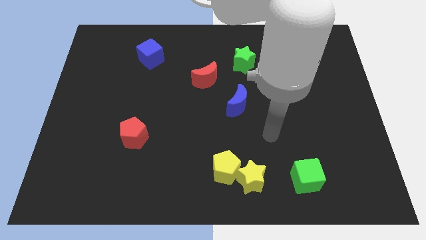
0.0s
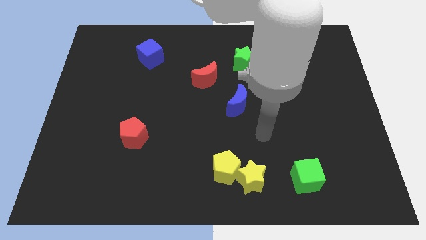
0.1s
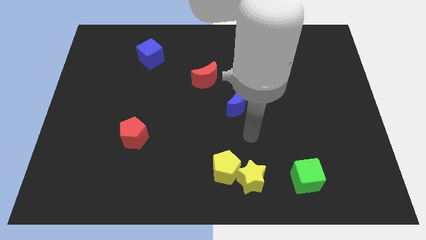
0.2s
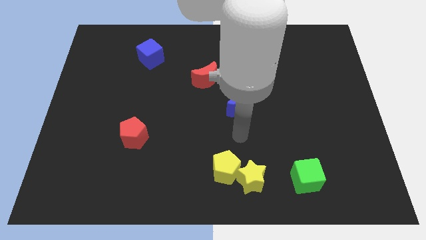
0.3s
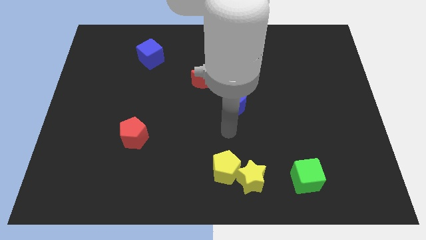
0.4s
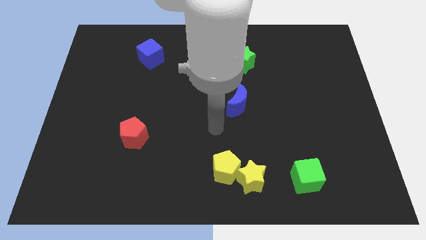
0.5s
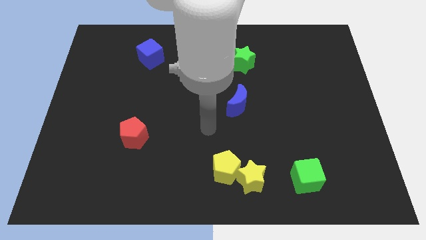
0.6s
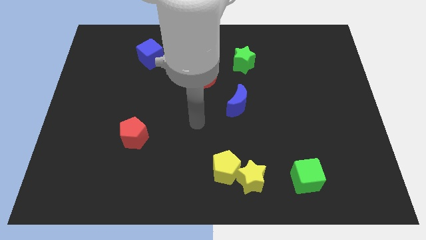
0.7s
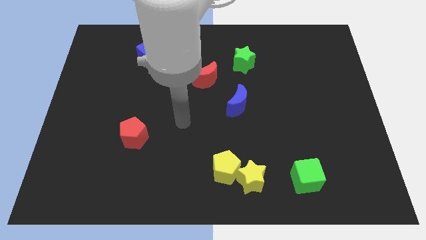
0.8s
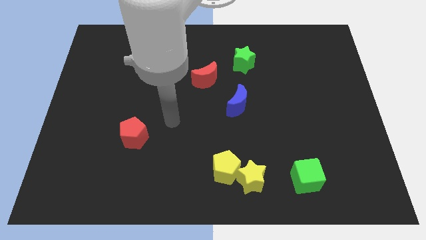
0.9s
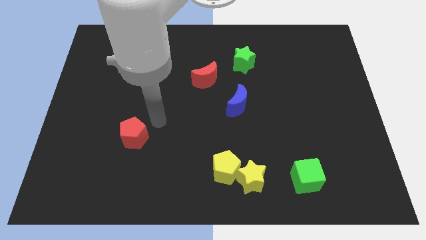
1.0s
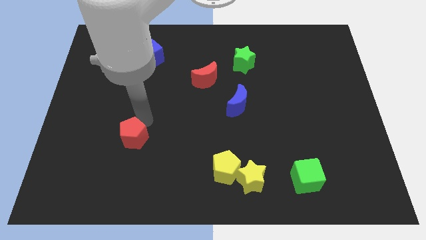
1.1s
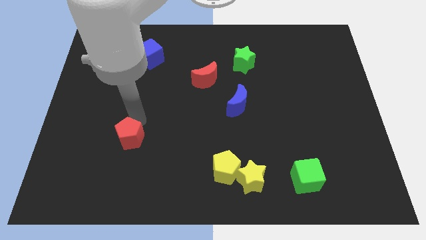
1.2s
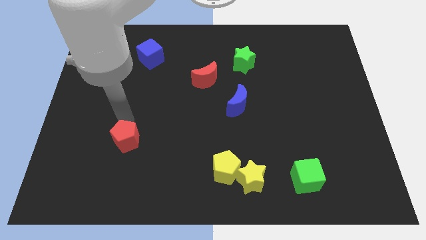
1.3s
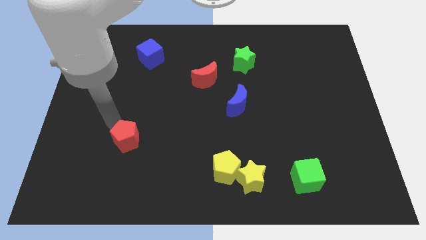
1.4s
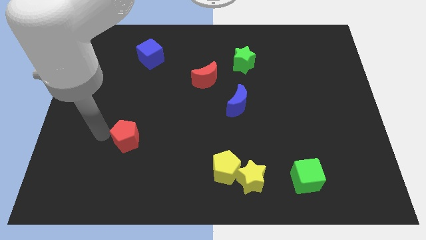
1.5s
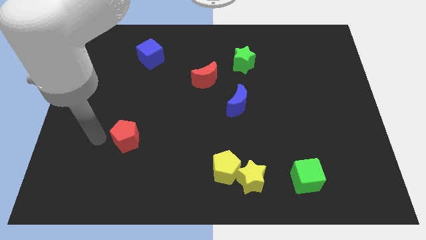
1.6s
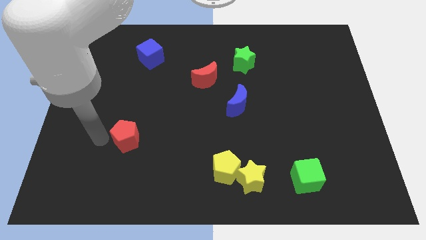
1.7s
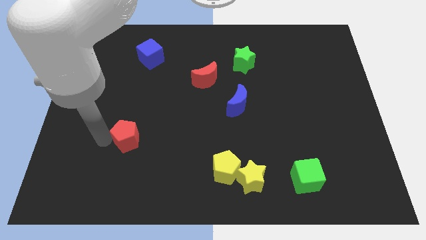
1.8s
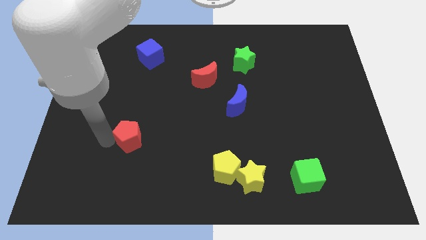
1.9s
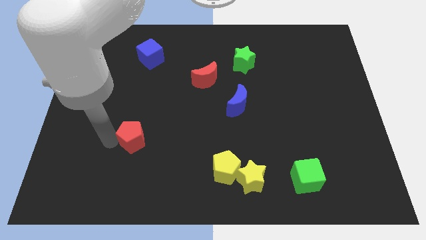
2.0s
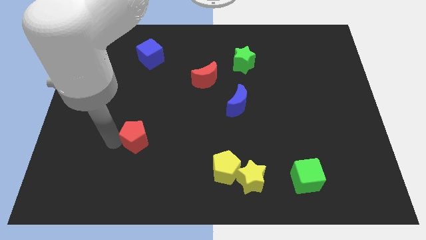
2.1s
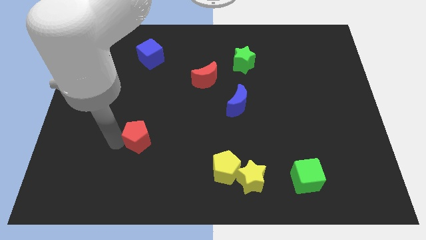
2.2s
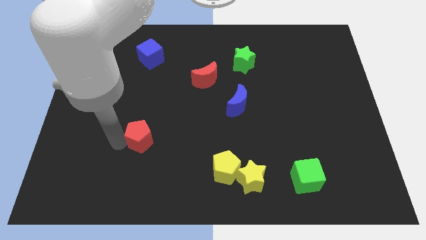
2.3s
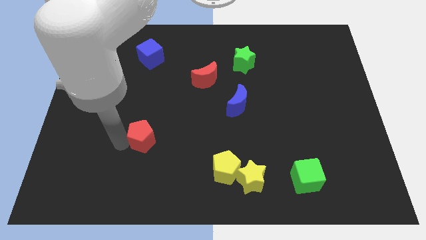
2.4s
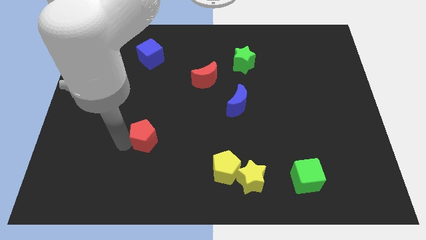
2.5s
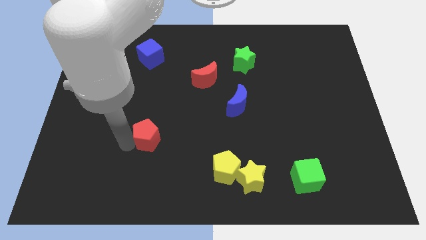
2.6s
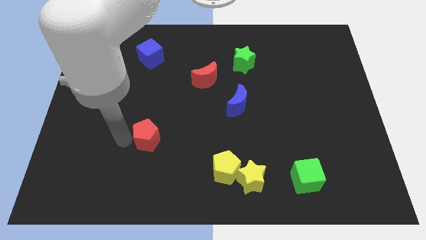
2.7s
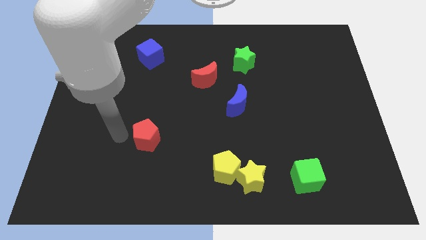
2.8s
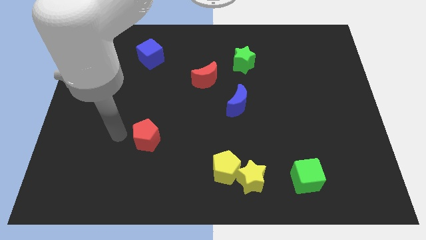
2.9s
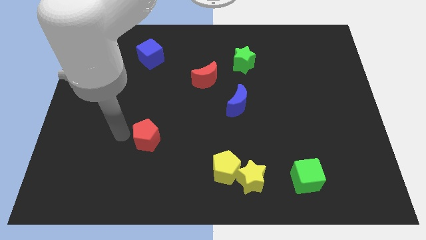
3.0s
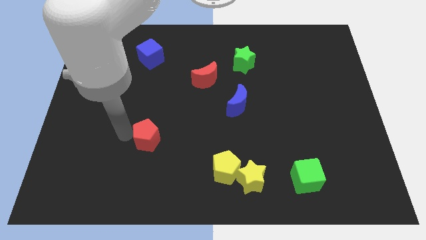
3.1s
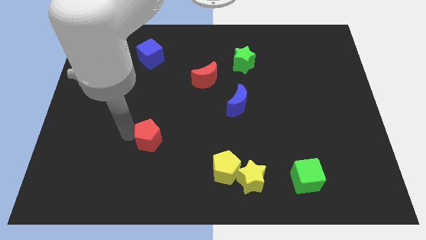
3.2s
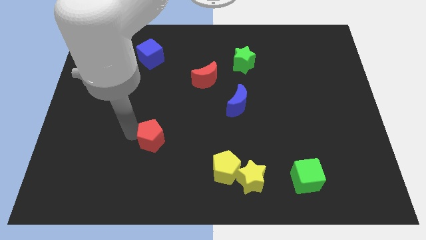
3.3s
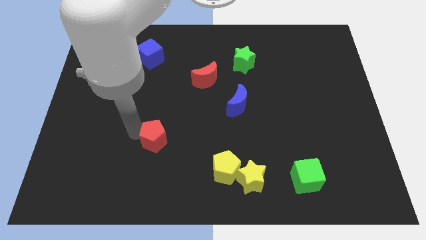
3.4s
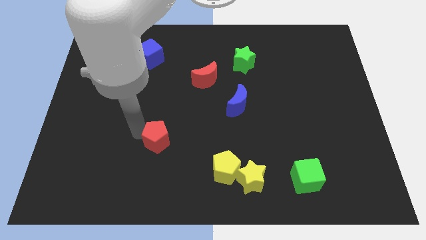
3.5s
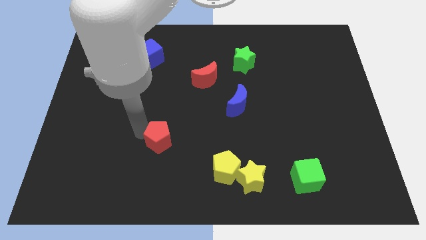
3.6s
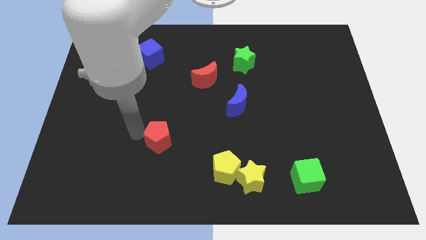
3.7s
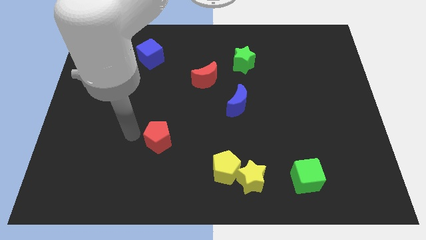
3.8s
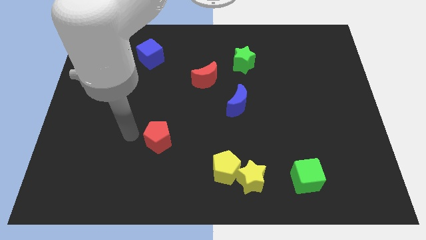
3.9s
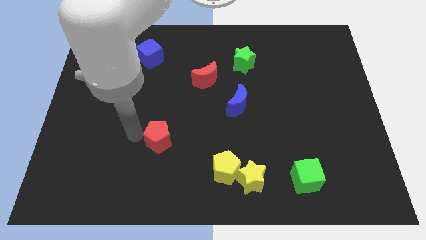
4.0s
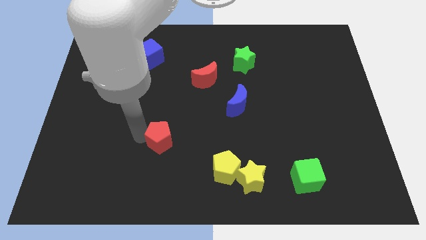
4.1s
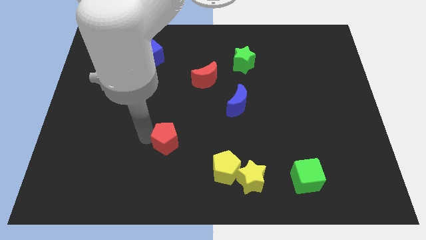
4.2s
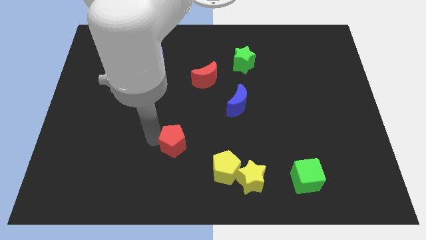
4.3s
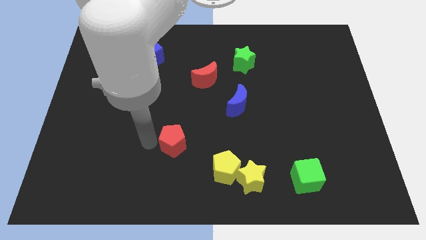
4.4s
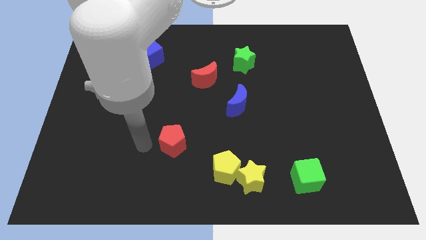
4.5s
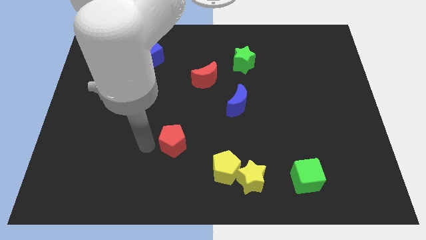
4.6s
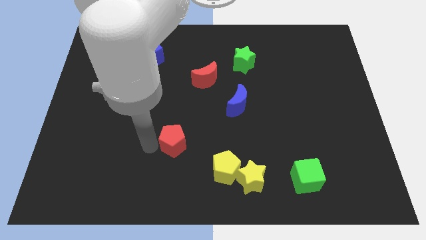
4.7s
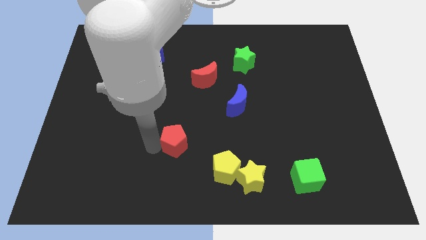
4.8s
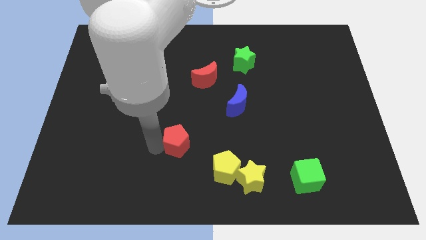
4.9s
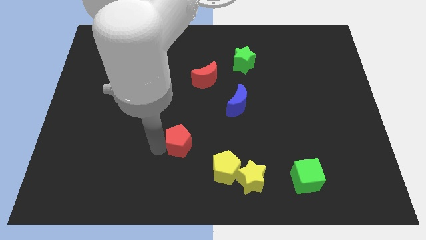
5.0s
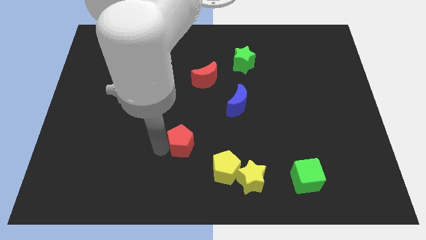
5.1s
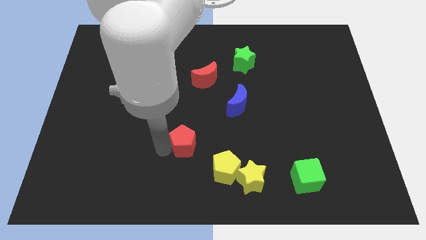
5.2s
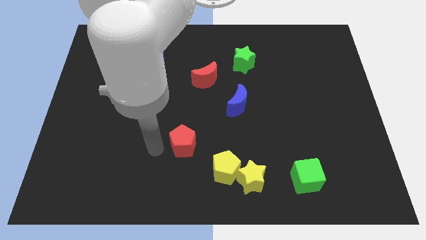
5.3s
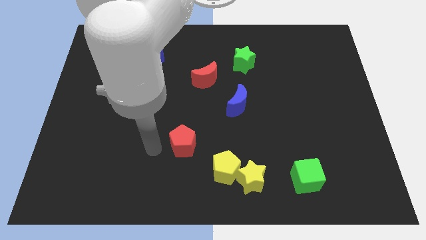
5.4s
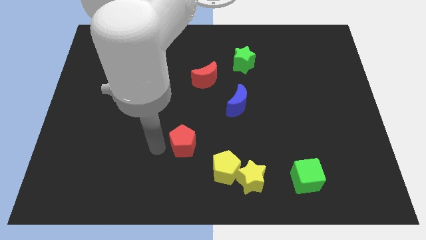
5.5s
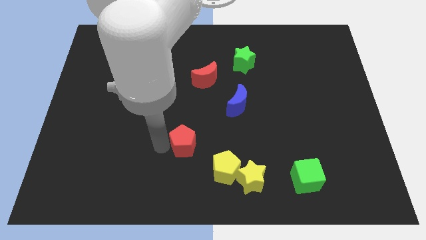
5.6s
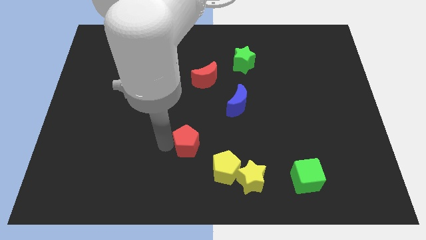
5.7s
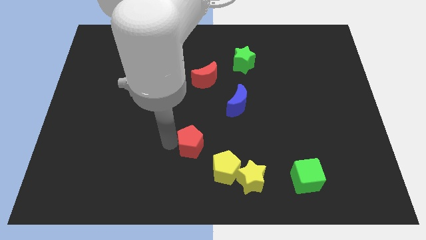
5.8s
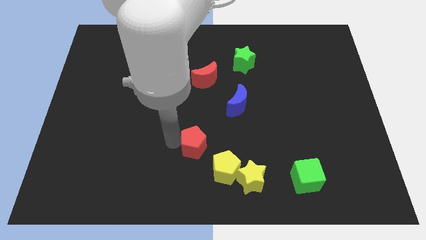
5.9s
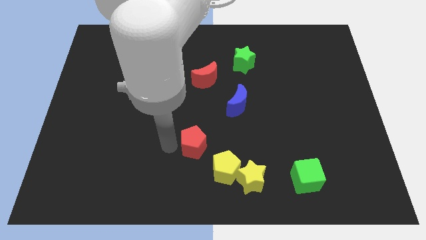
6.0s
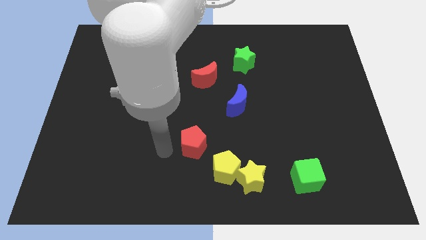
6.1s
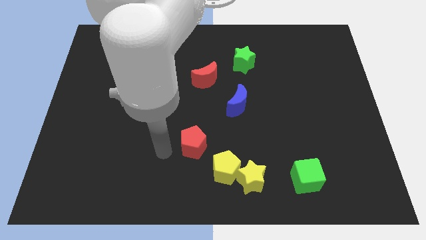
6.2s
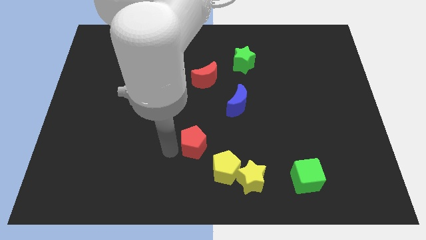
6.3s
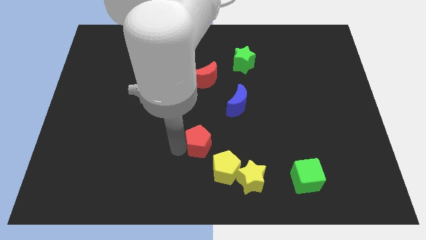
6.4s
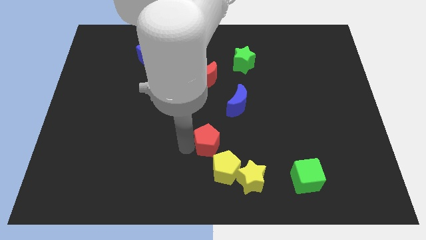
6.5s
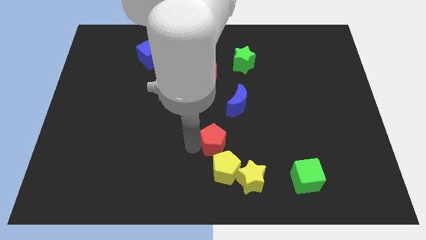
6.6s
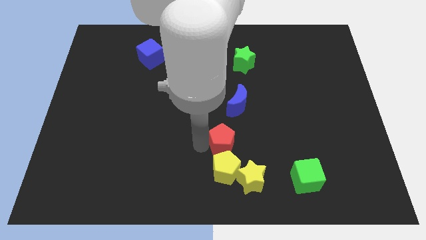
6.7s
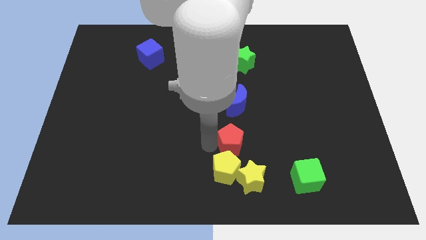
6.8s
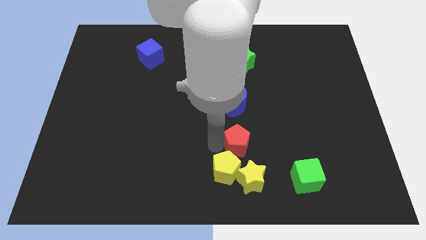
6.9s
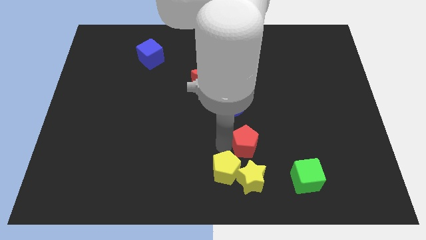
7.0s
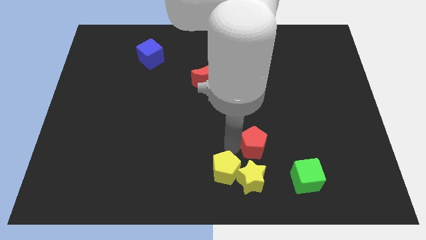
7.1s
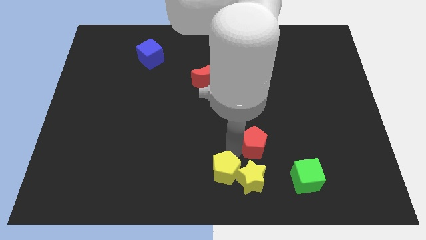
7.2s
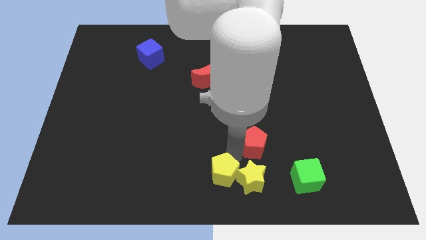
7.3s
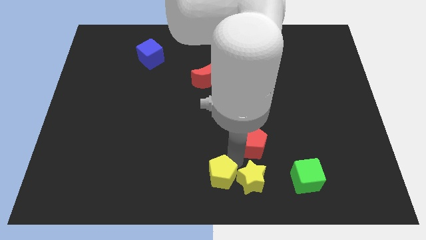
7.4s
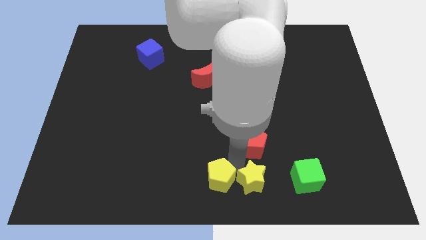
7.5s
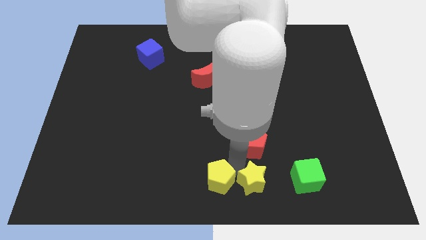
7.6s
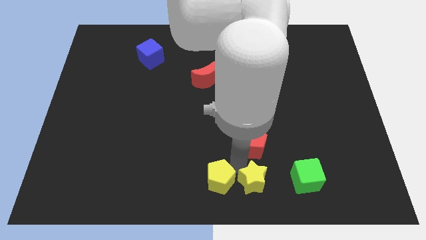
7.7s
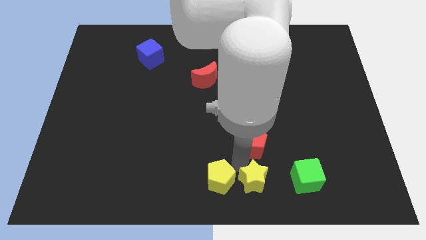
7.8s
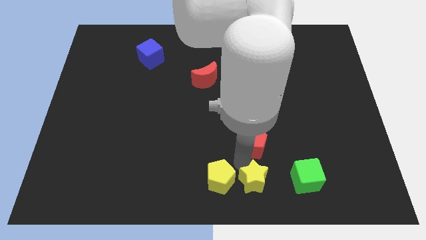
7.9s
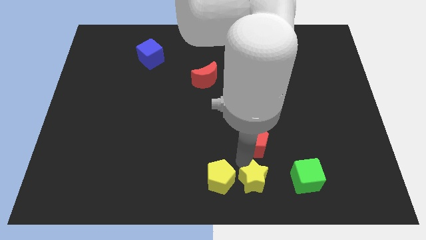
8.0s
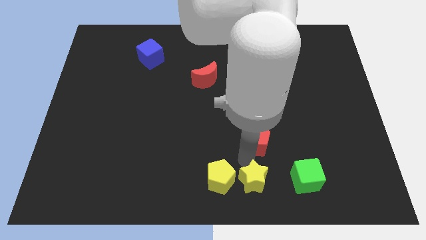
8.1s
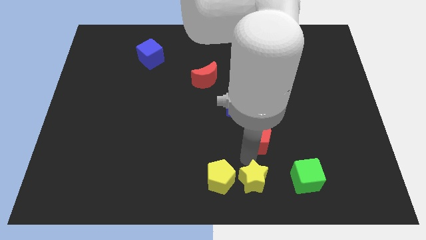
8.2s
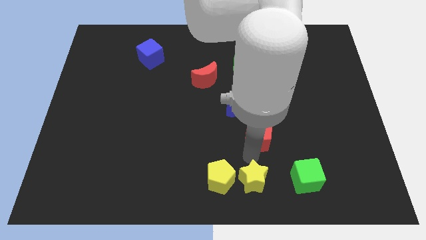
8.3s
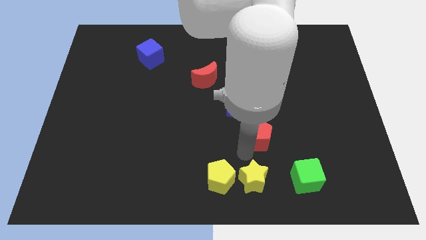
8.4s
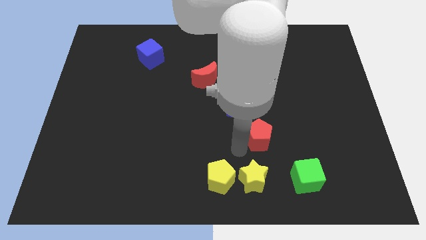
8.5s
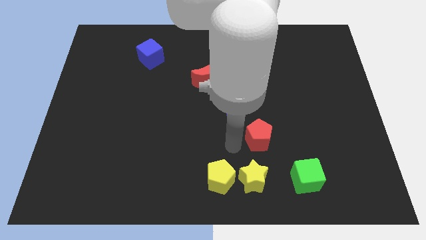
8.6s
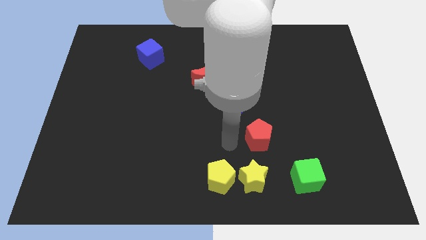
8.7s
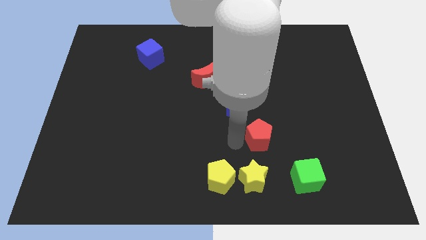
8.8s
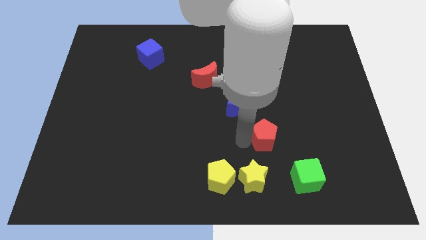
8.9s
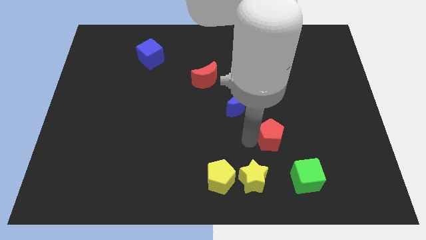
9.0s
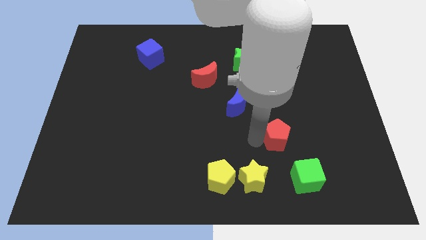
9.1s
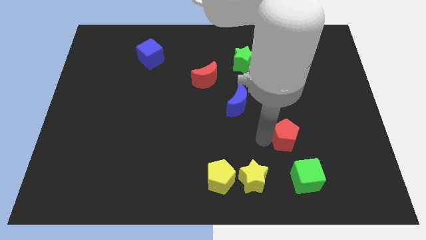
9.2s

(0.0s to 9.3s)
push the red pentagon to the top of the green cube
